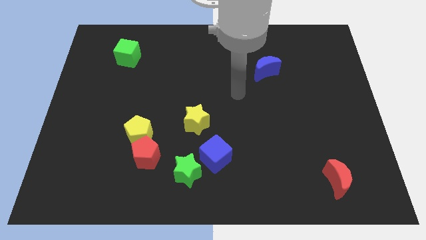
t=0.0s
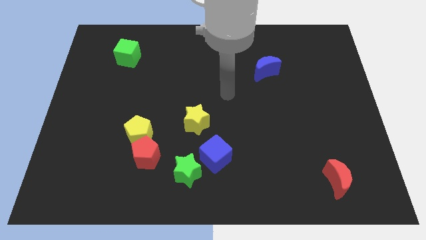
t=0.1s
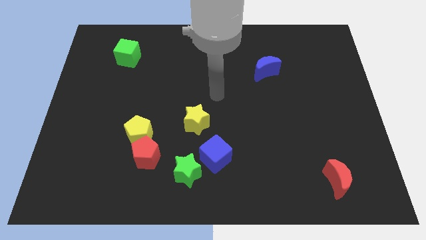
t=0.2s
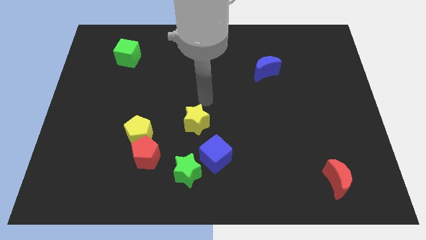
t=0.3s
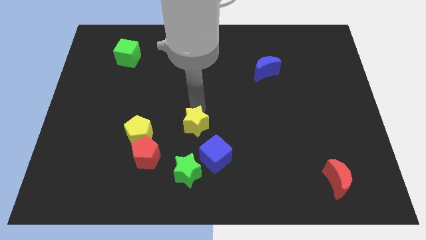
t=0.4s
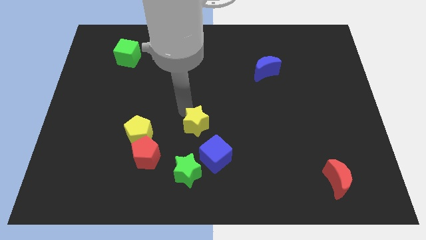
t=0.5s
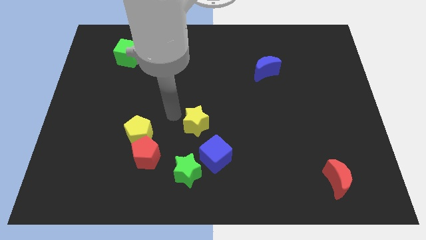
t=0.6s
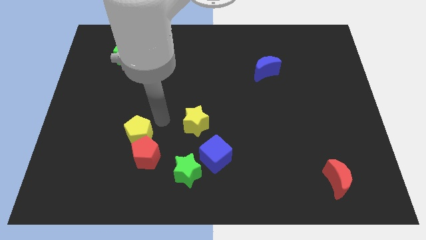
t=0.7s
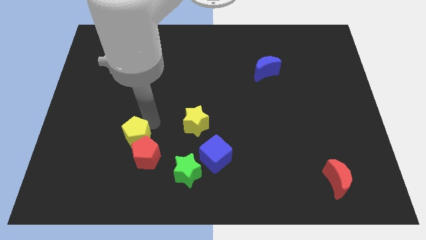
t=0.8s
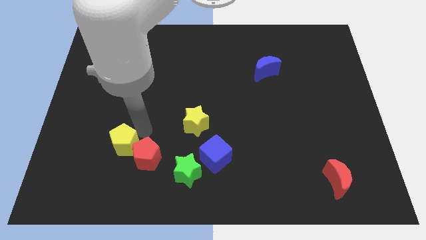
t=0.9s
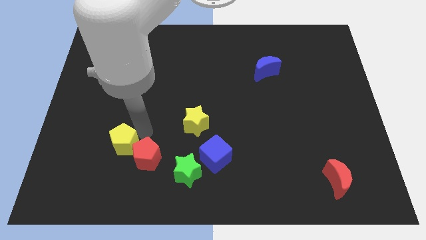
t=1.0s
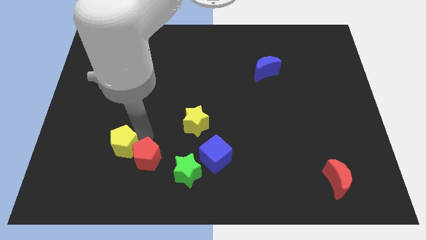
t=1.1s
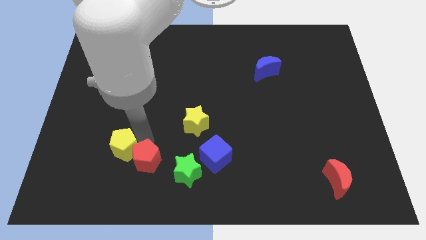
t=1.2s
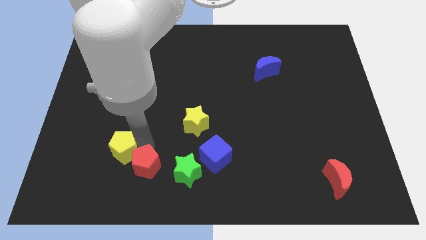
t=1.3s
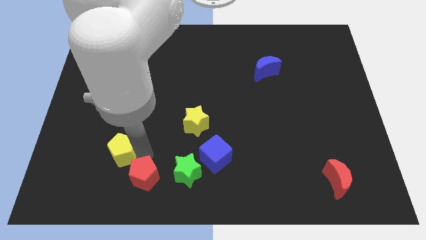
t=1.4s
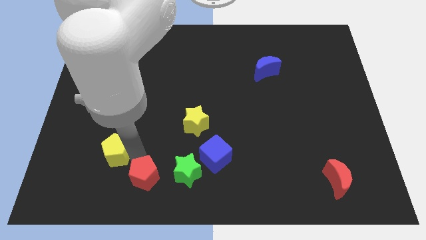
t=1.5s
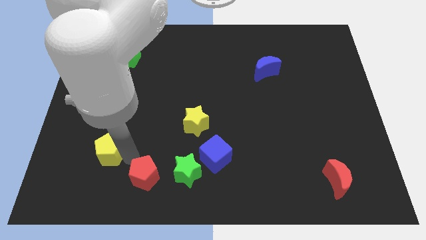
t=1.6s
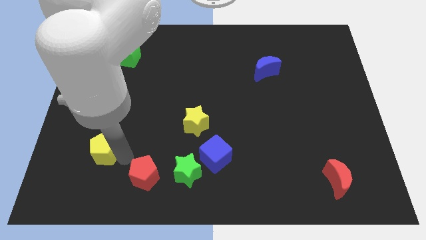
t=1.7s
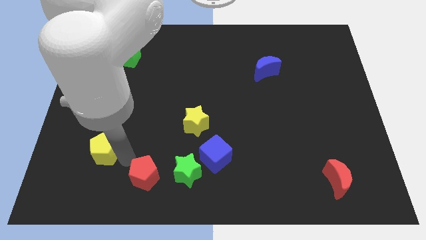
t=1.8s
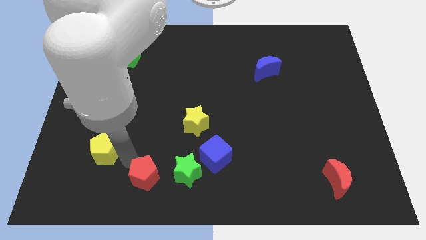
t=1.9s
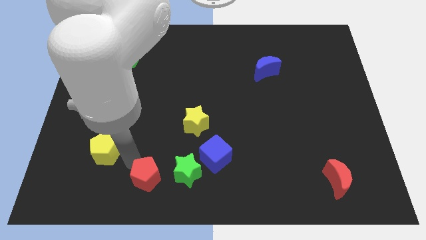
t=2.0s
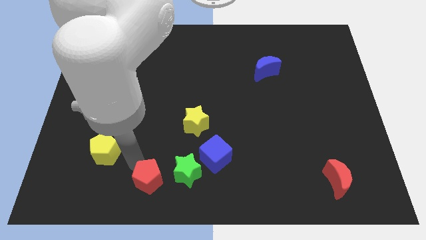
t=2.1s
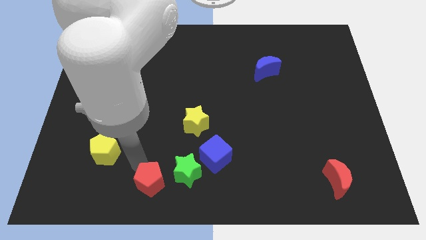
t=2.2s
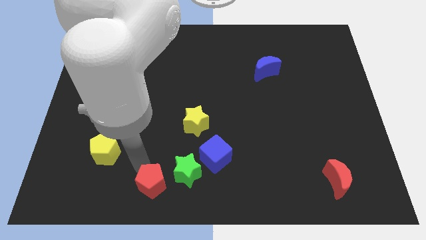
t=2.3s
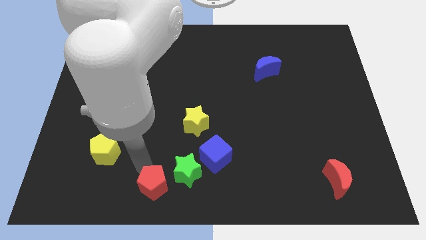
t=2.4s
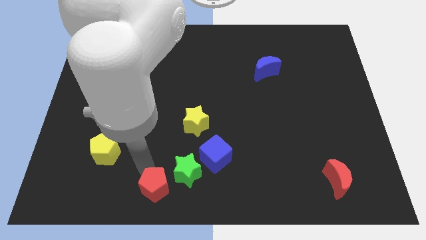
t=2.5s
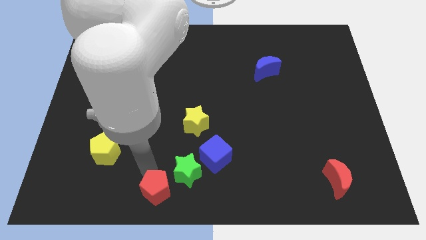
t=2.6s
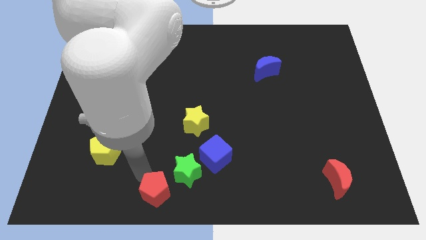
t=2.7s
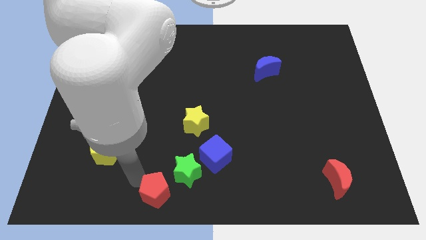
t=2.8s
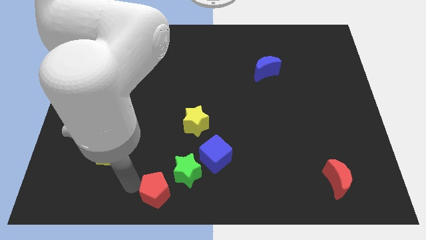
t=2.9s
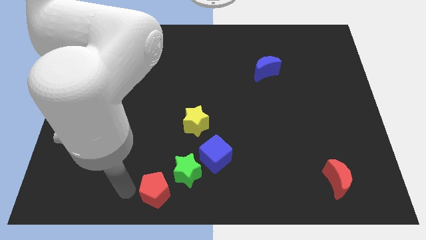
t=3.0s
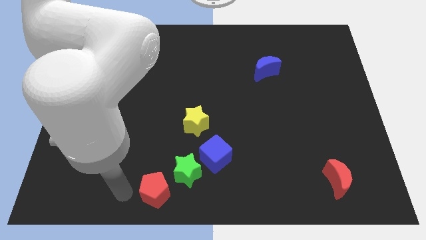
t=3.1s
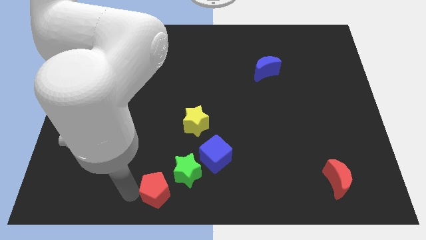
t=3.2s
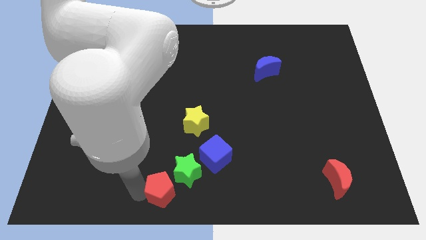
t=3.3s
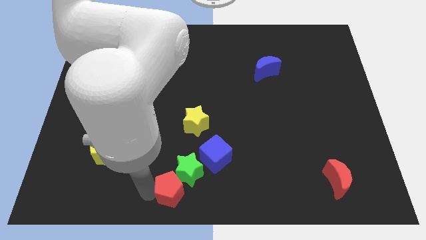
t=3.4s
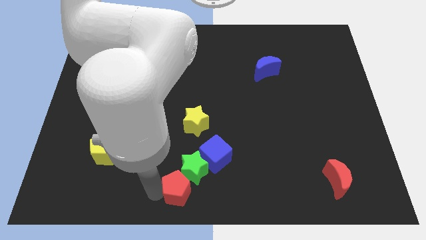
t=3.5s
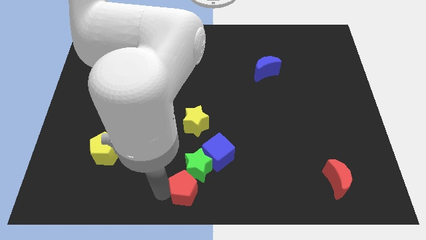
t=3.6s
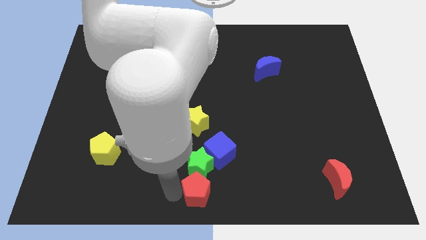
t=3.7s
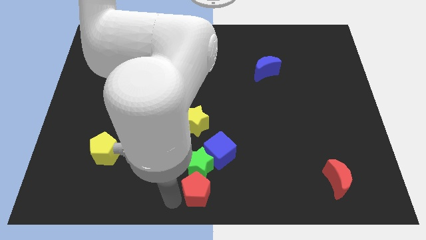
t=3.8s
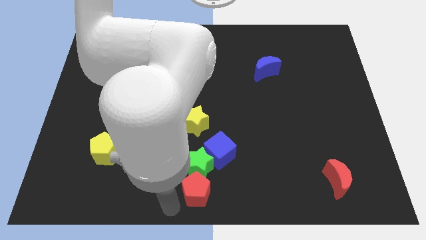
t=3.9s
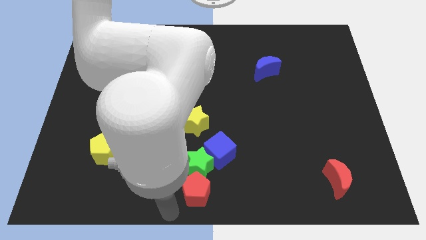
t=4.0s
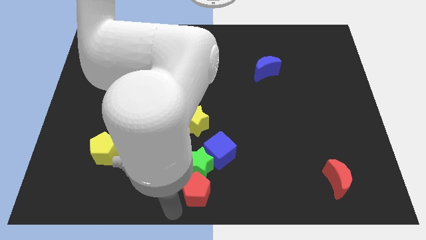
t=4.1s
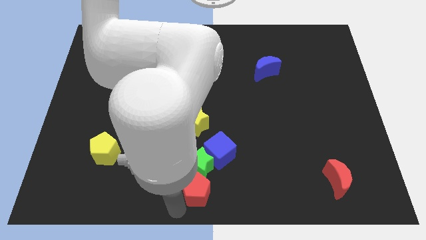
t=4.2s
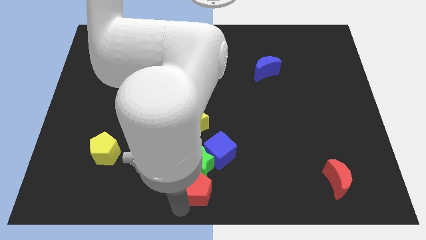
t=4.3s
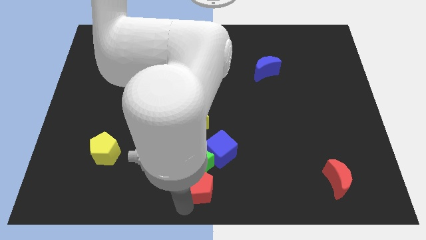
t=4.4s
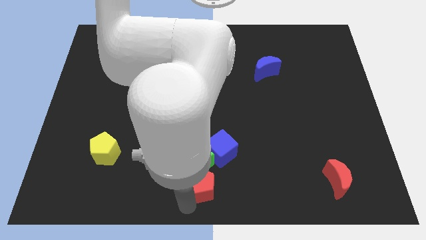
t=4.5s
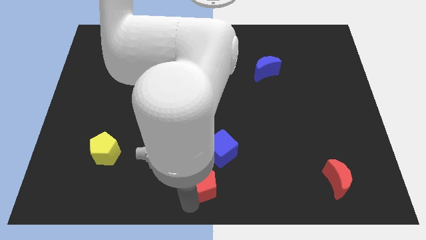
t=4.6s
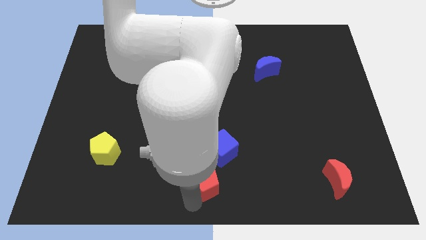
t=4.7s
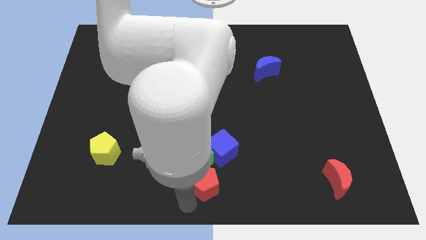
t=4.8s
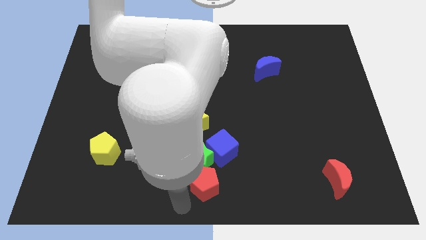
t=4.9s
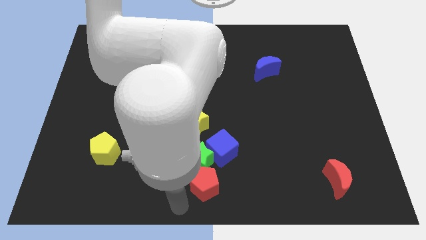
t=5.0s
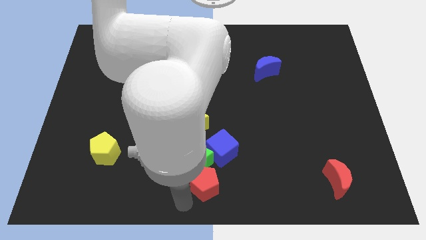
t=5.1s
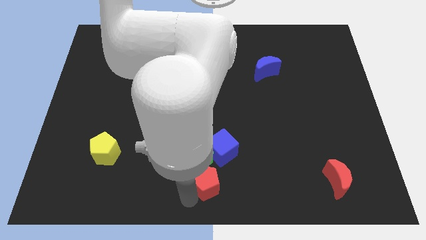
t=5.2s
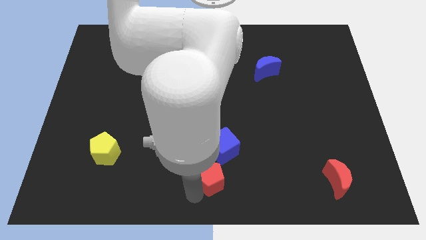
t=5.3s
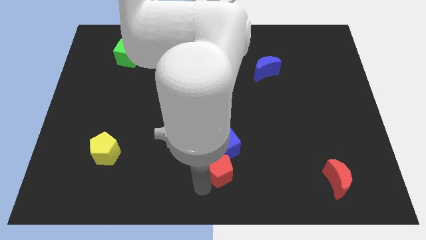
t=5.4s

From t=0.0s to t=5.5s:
slide the red pentagon to the right of the green star

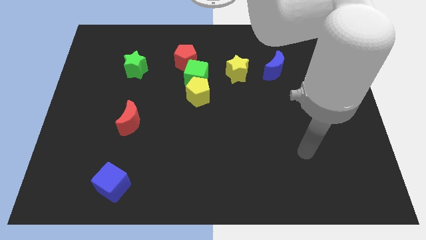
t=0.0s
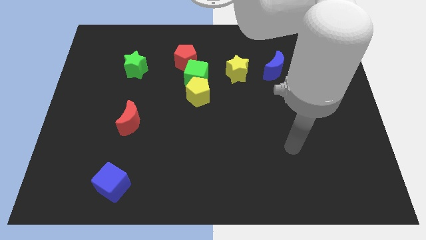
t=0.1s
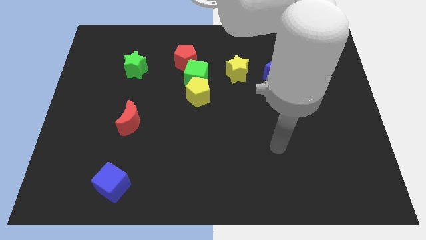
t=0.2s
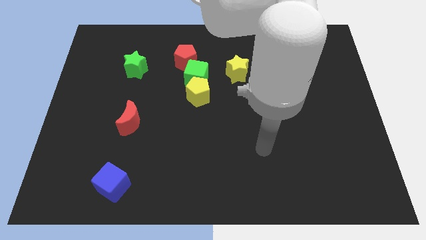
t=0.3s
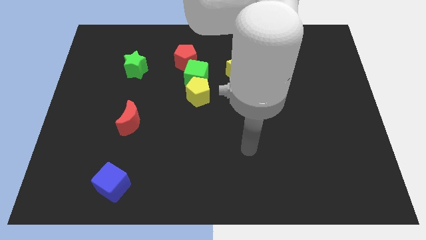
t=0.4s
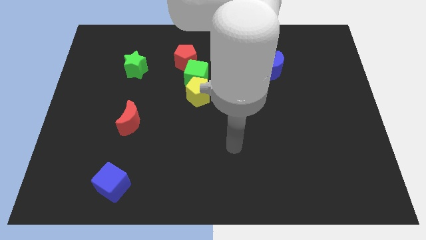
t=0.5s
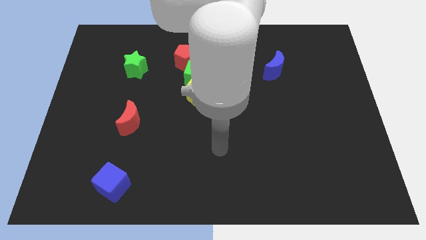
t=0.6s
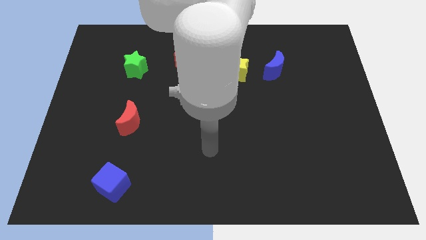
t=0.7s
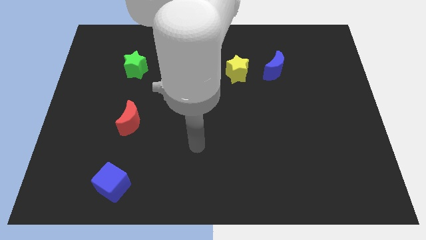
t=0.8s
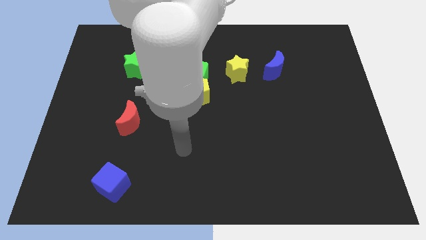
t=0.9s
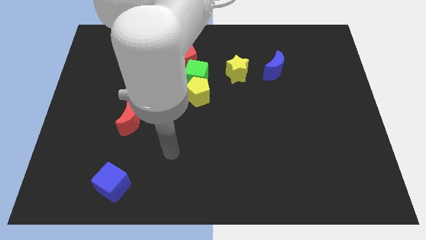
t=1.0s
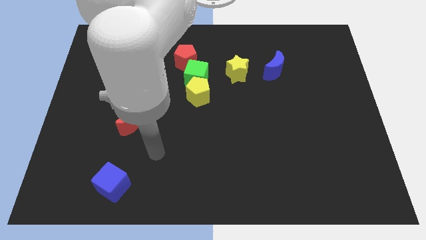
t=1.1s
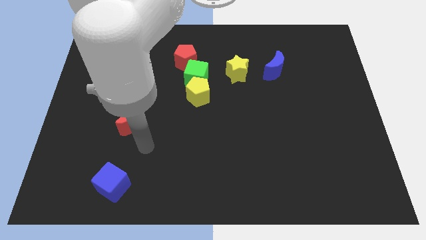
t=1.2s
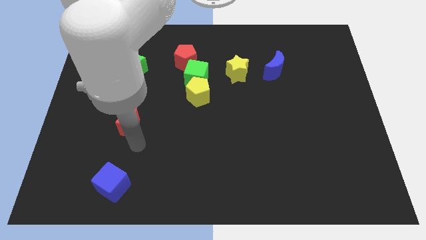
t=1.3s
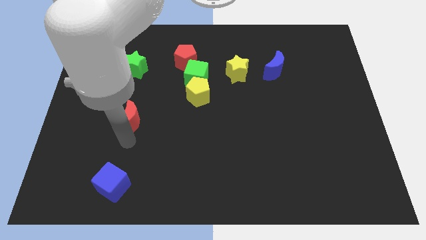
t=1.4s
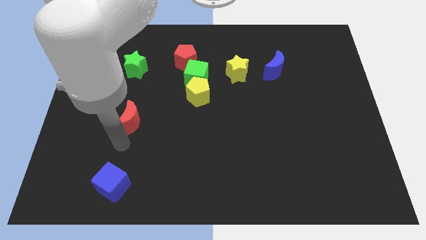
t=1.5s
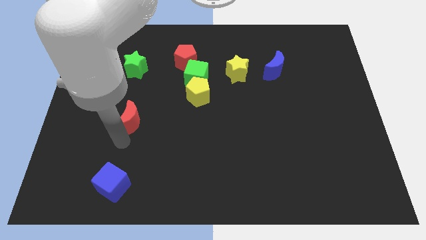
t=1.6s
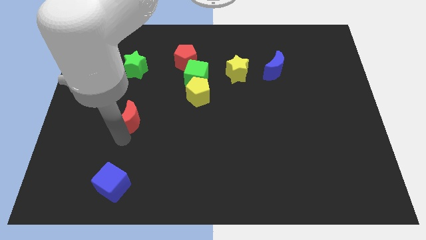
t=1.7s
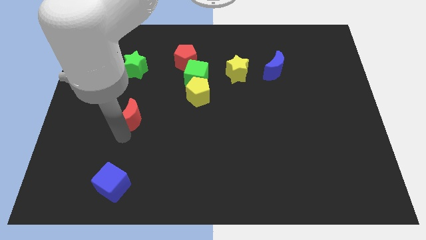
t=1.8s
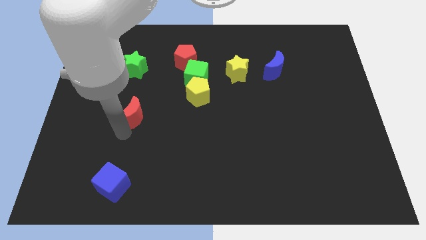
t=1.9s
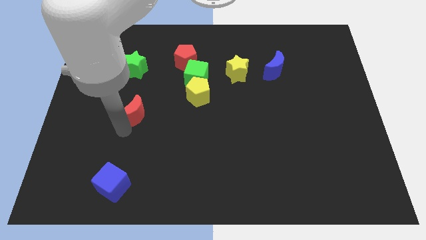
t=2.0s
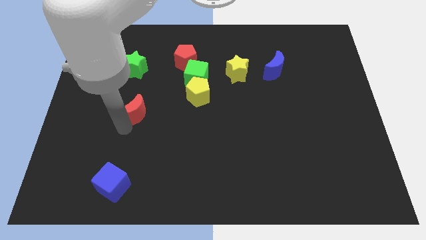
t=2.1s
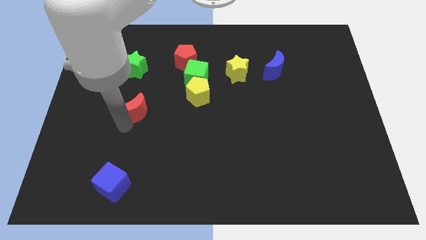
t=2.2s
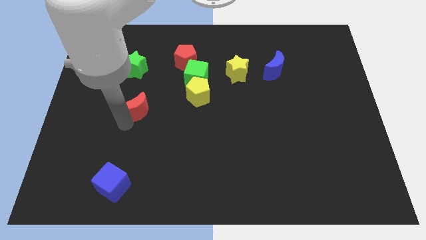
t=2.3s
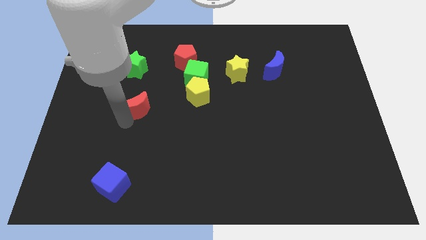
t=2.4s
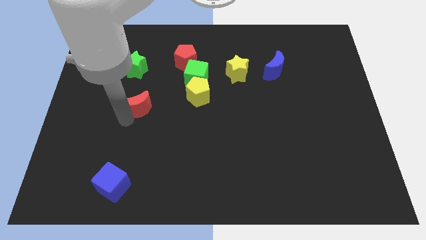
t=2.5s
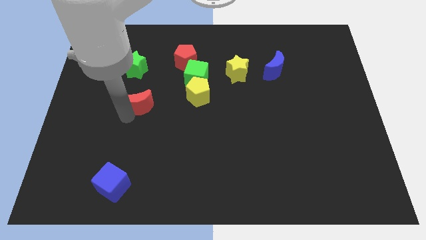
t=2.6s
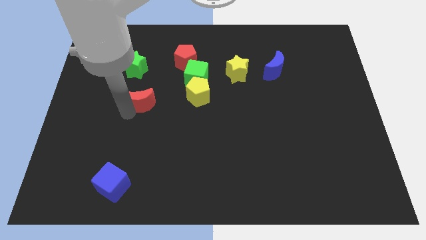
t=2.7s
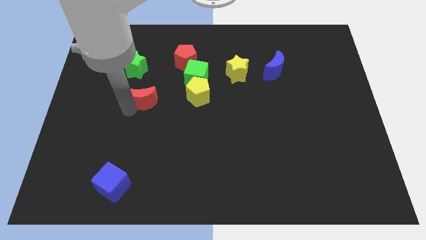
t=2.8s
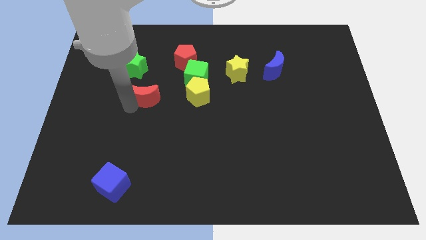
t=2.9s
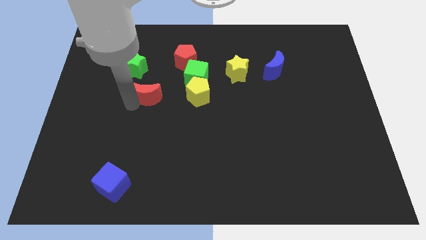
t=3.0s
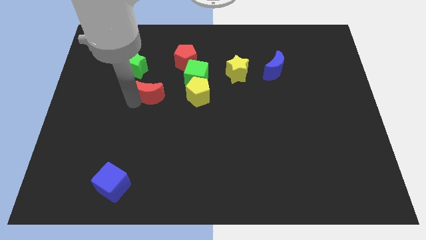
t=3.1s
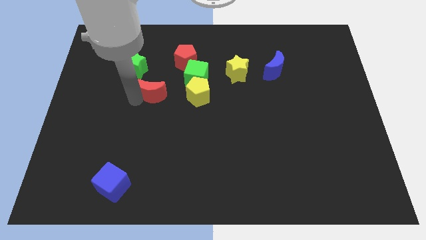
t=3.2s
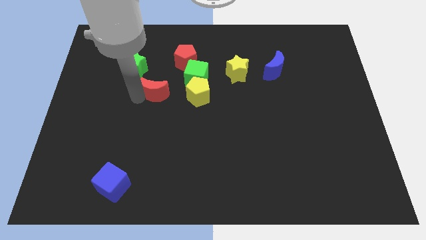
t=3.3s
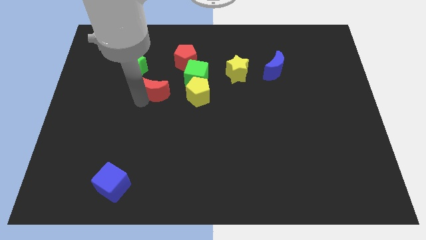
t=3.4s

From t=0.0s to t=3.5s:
slide the red moon to the left of the green cube
